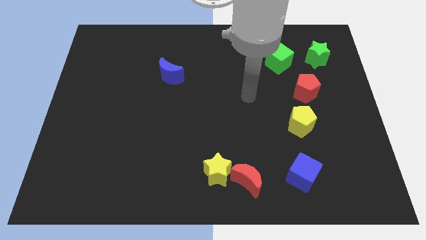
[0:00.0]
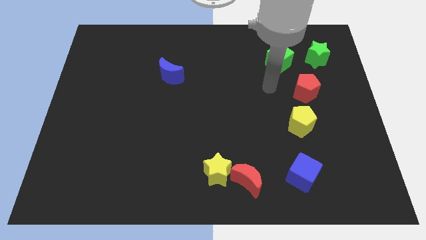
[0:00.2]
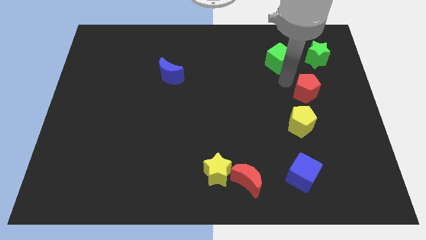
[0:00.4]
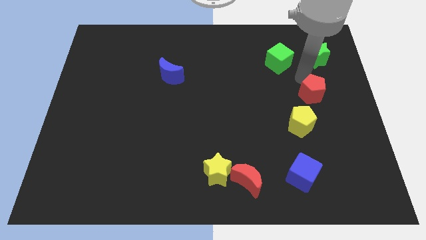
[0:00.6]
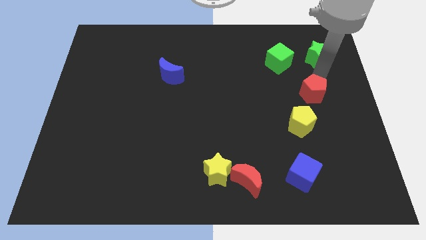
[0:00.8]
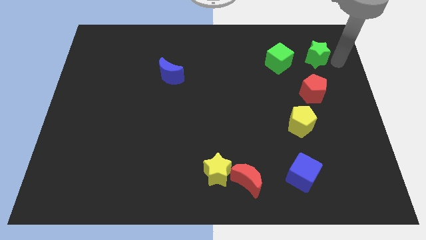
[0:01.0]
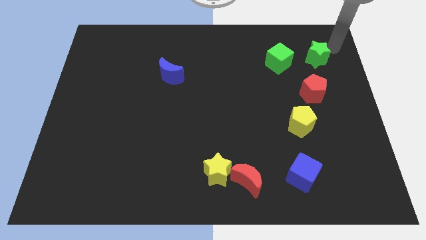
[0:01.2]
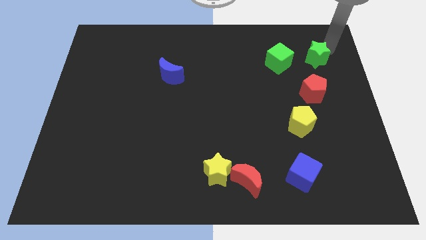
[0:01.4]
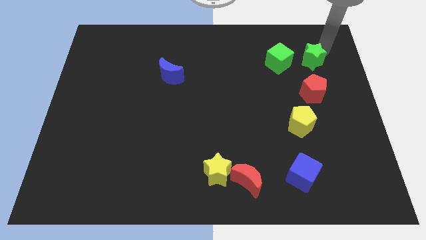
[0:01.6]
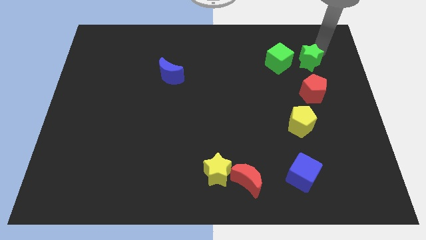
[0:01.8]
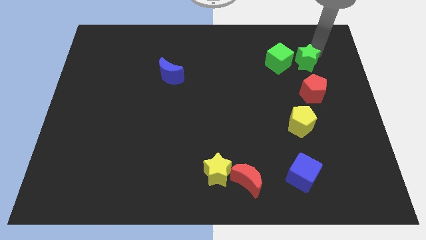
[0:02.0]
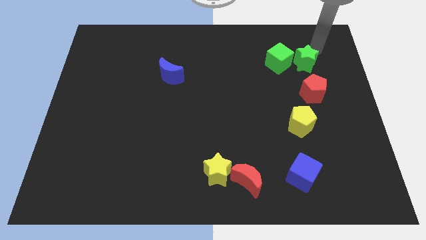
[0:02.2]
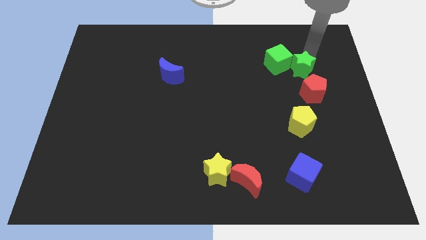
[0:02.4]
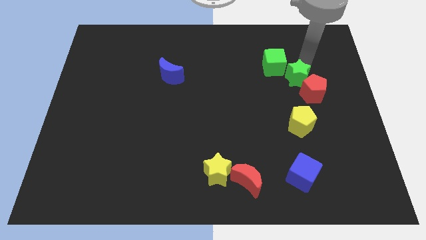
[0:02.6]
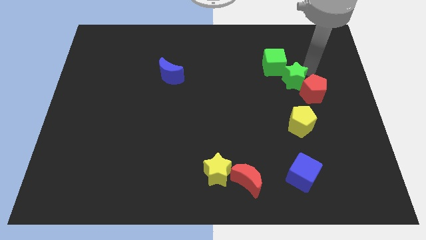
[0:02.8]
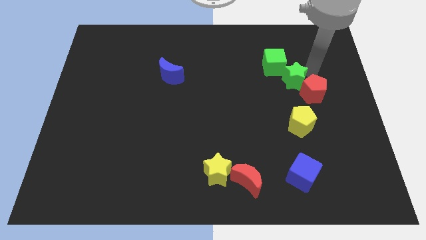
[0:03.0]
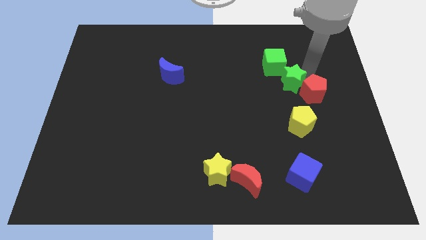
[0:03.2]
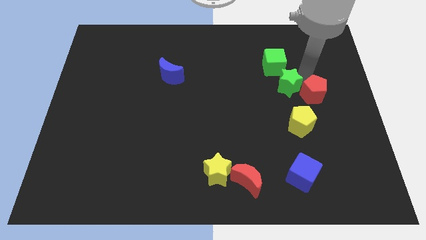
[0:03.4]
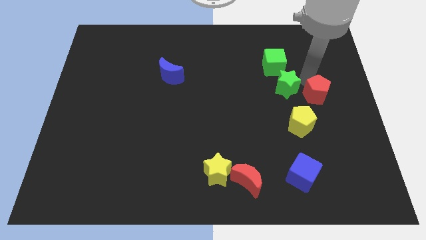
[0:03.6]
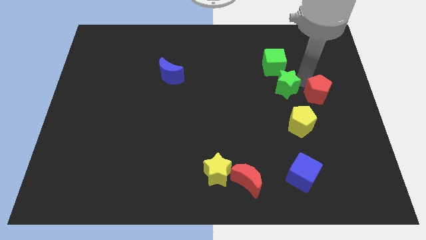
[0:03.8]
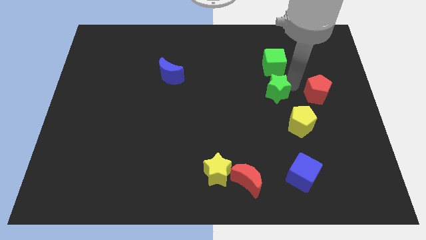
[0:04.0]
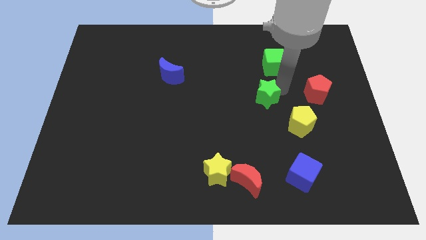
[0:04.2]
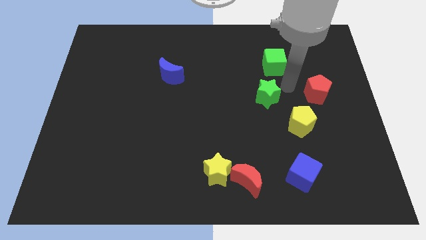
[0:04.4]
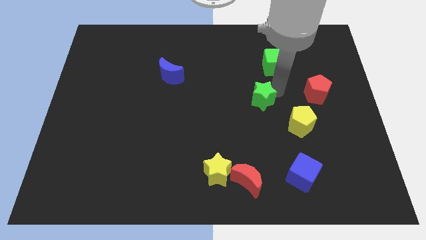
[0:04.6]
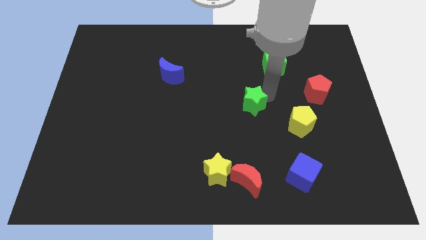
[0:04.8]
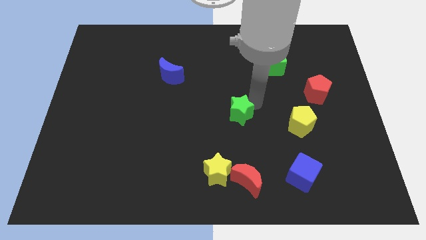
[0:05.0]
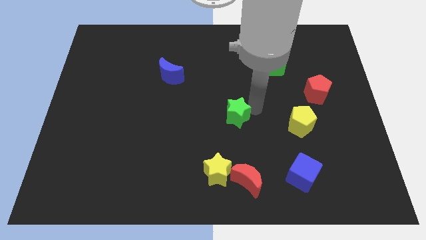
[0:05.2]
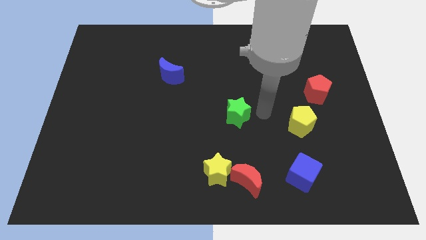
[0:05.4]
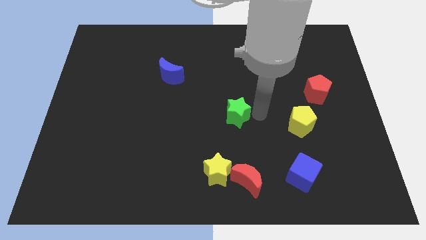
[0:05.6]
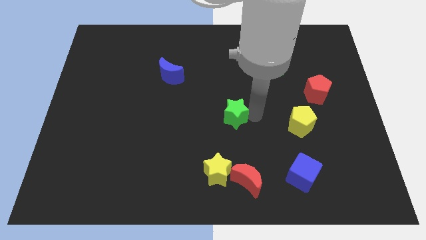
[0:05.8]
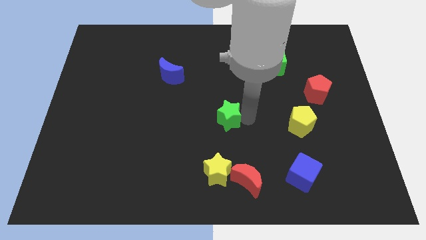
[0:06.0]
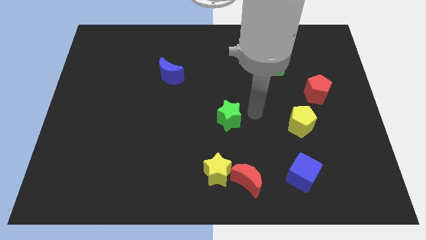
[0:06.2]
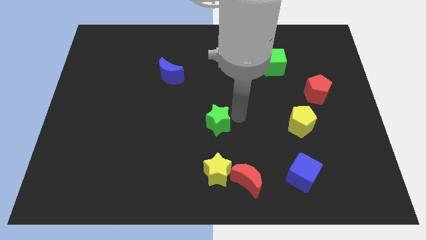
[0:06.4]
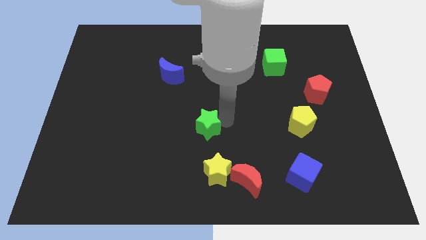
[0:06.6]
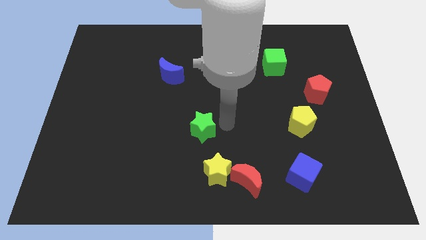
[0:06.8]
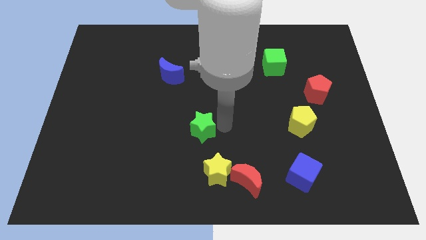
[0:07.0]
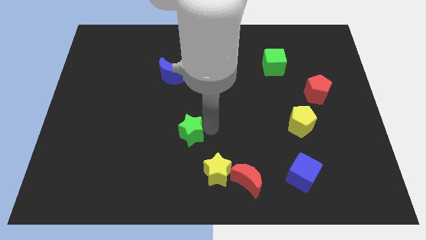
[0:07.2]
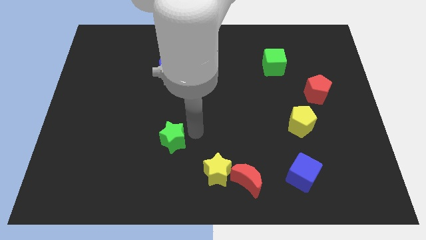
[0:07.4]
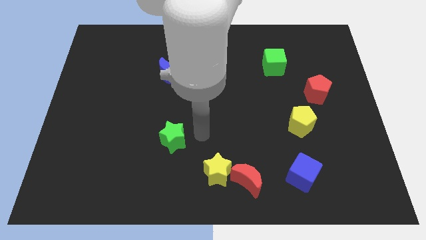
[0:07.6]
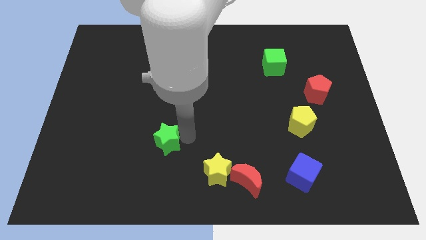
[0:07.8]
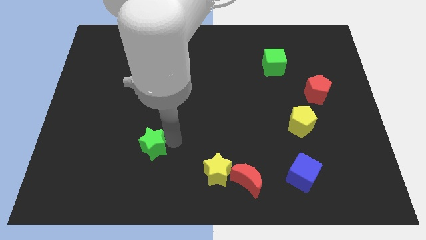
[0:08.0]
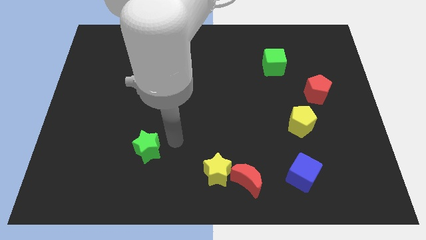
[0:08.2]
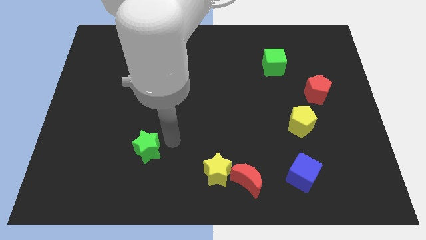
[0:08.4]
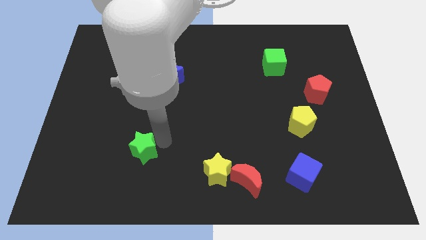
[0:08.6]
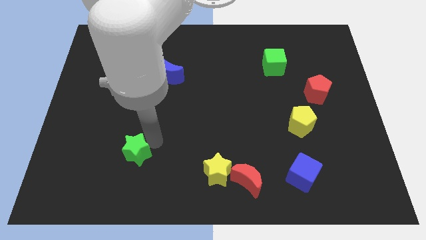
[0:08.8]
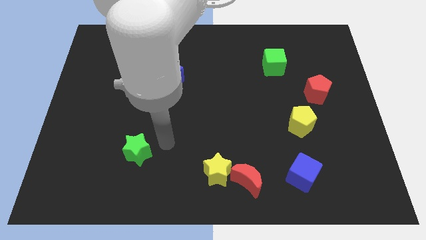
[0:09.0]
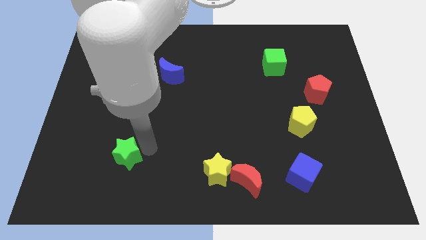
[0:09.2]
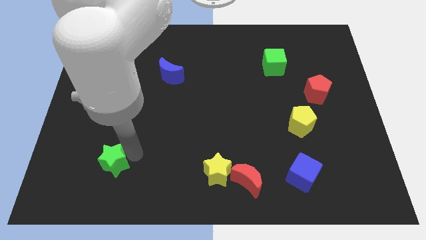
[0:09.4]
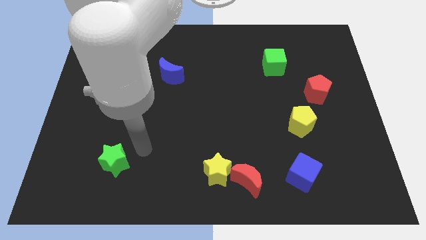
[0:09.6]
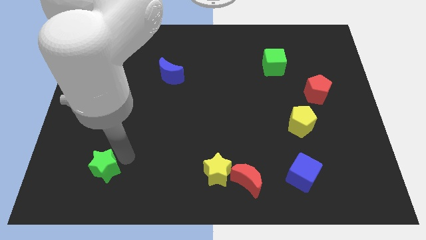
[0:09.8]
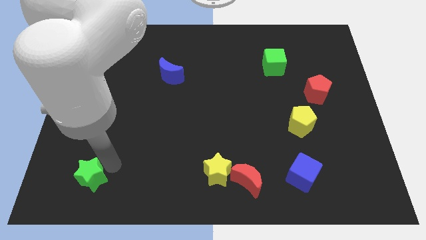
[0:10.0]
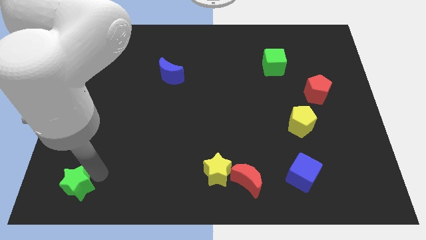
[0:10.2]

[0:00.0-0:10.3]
slide the green star to the bottom left

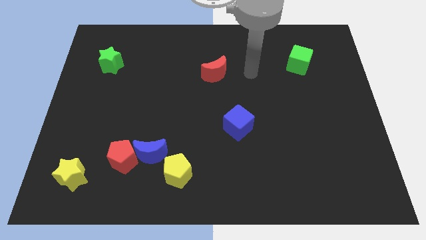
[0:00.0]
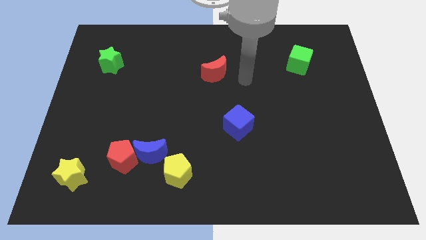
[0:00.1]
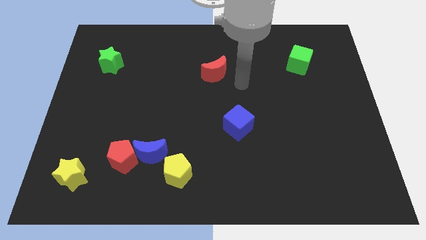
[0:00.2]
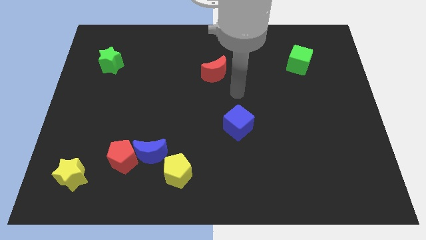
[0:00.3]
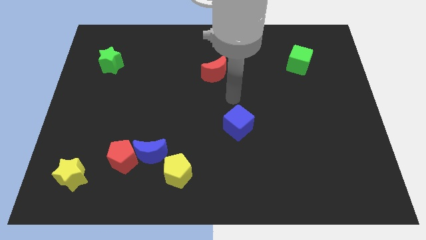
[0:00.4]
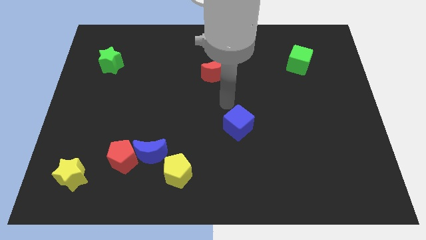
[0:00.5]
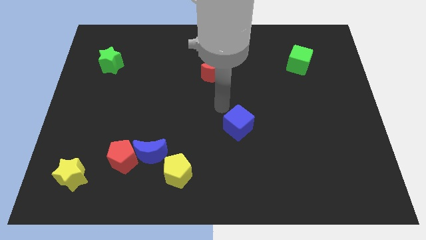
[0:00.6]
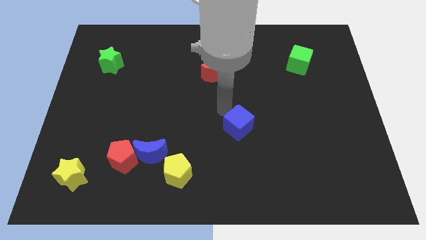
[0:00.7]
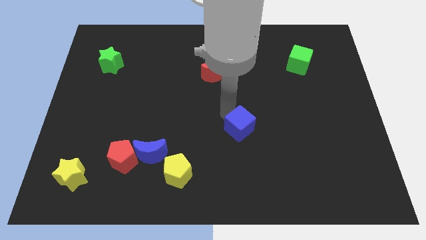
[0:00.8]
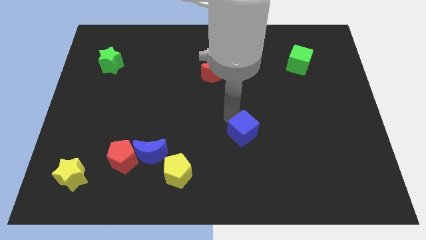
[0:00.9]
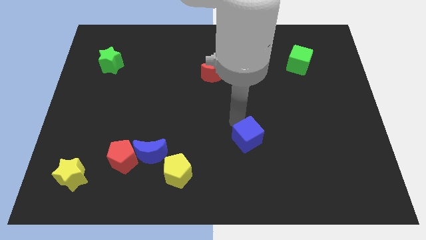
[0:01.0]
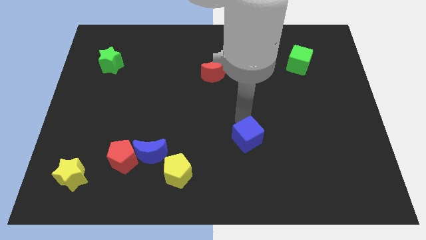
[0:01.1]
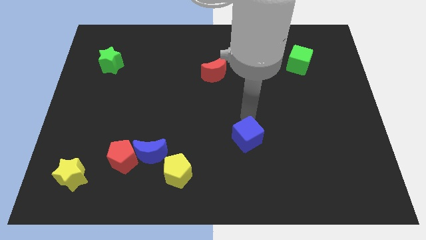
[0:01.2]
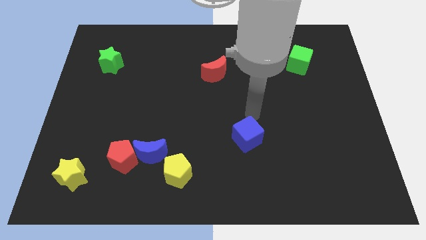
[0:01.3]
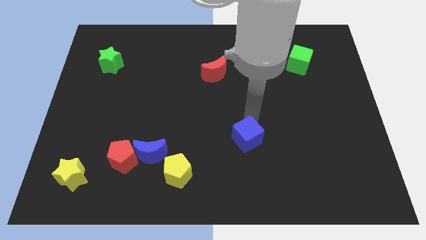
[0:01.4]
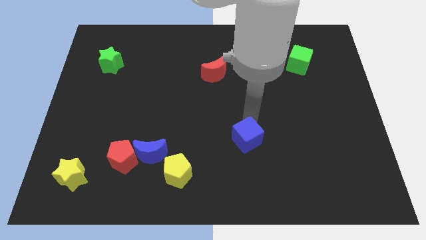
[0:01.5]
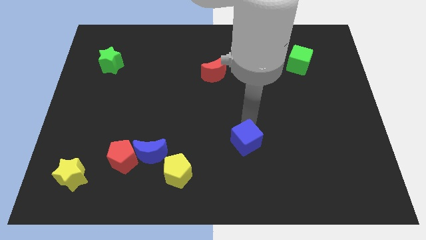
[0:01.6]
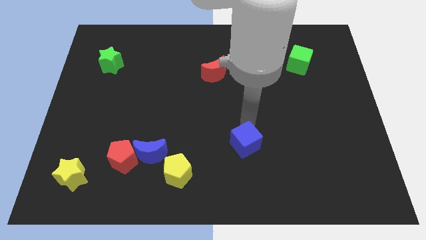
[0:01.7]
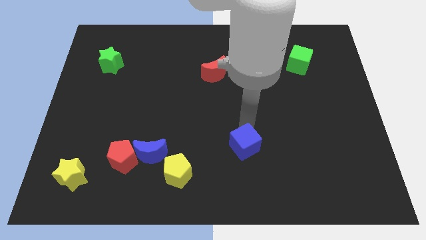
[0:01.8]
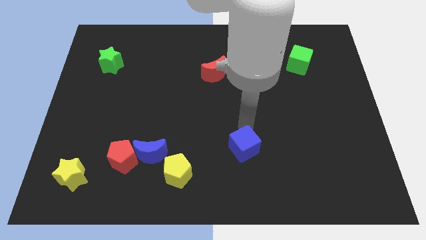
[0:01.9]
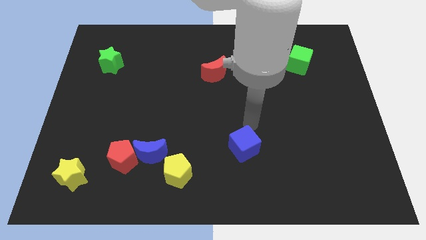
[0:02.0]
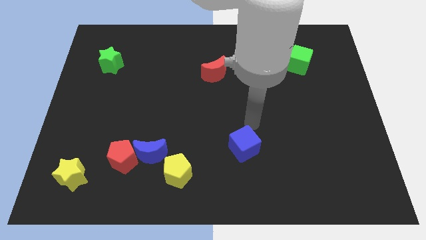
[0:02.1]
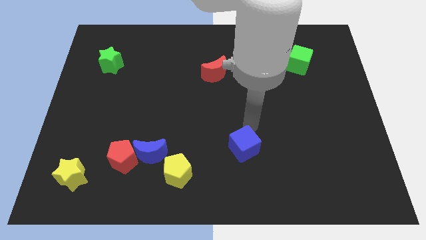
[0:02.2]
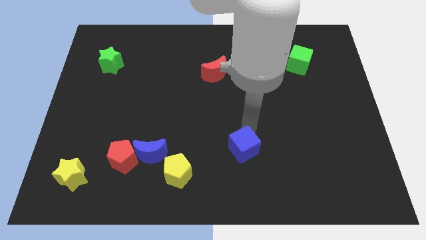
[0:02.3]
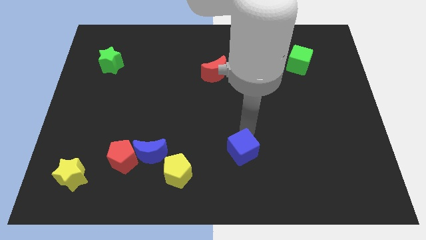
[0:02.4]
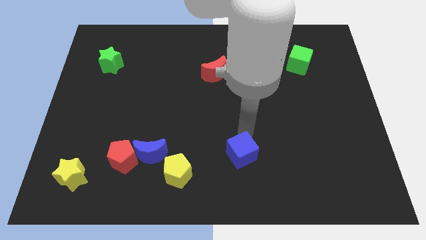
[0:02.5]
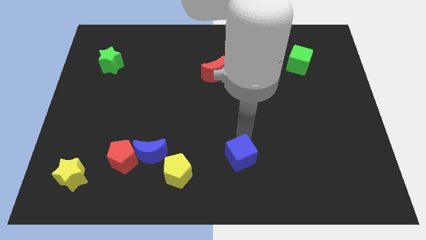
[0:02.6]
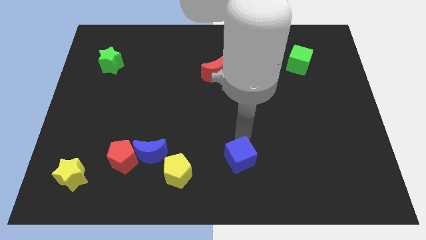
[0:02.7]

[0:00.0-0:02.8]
put the blue cube to the bottom side
